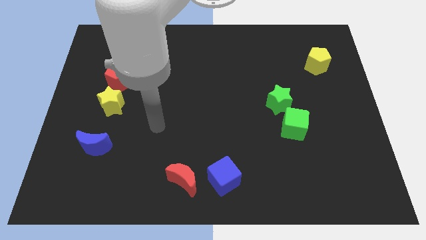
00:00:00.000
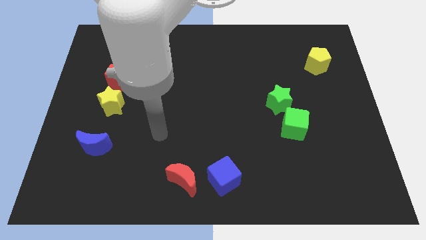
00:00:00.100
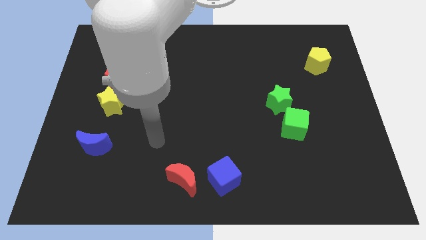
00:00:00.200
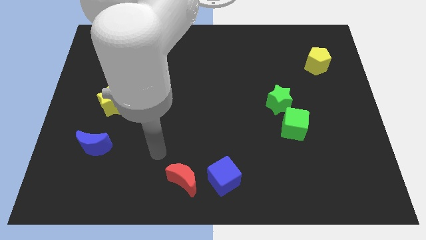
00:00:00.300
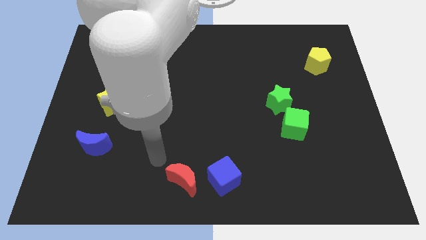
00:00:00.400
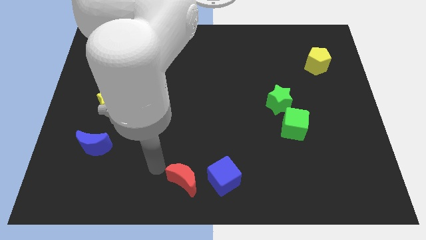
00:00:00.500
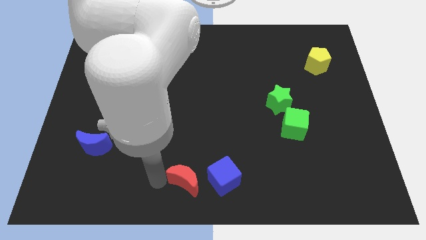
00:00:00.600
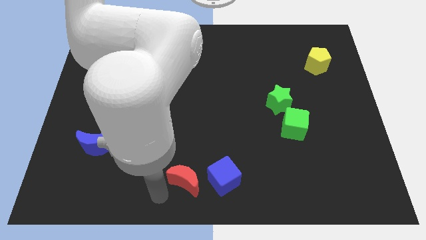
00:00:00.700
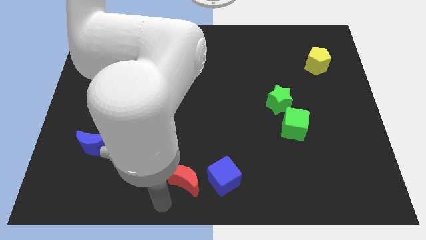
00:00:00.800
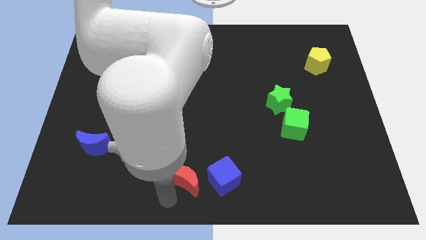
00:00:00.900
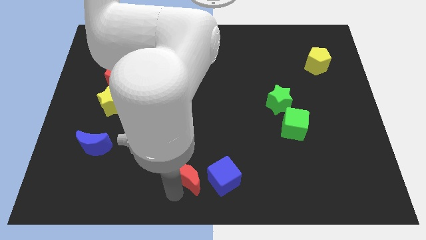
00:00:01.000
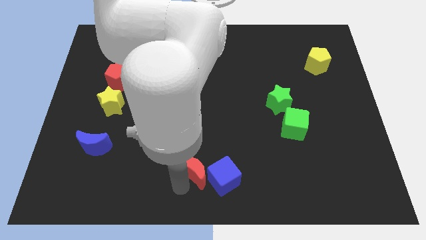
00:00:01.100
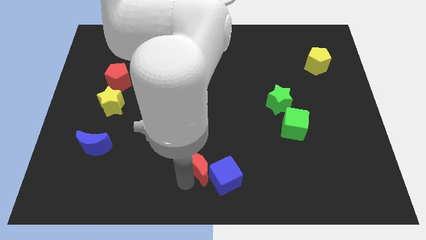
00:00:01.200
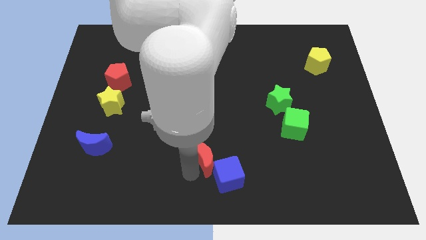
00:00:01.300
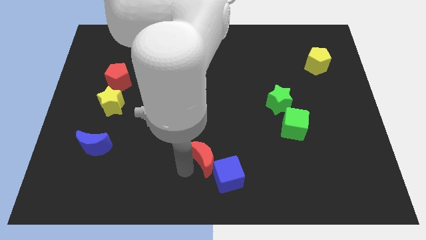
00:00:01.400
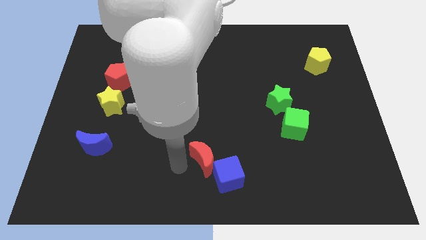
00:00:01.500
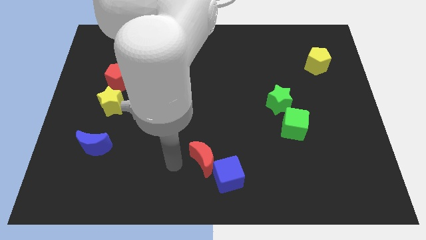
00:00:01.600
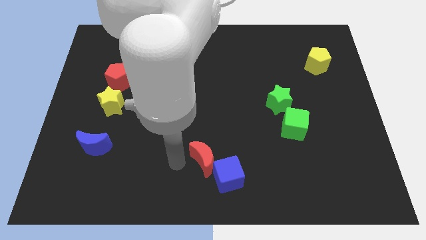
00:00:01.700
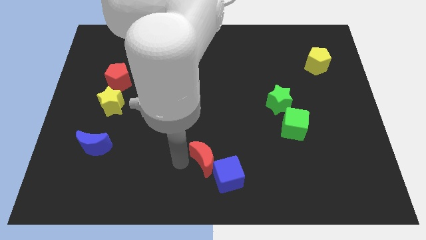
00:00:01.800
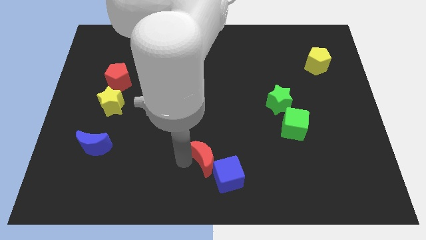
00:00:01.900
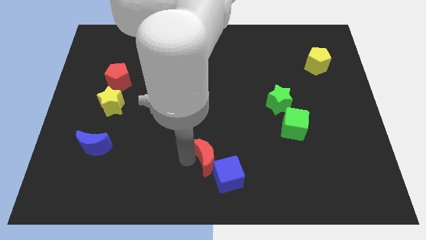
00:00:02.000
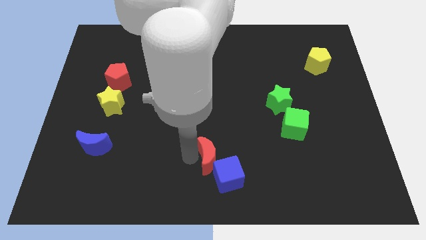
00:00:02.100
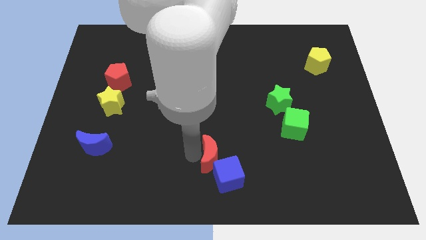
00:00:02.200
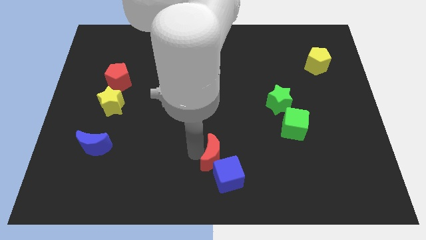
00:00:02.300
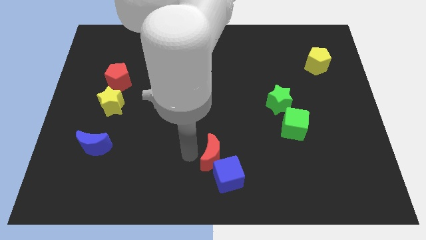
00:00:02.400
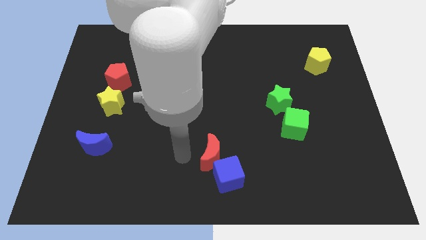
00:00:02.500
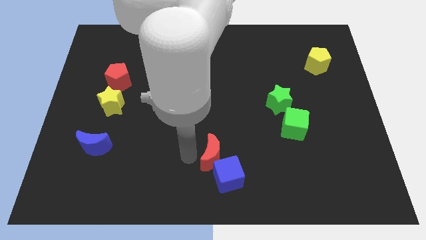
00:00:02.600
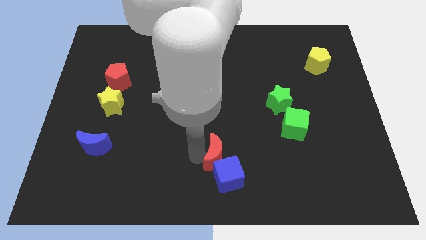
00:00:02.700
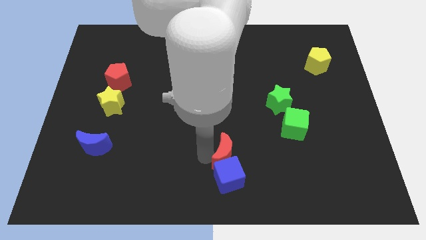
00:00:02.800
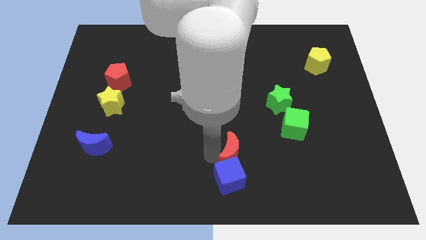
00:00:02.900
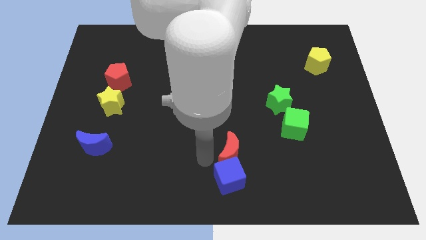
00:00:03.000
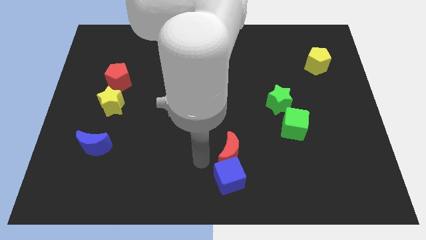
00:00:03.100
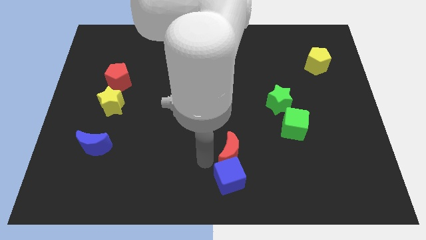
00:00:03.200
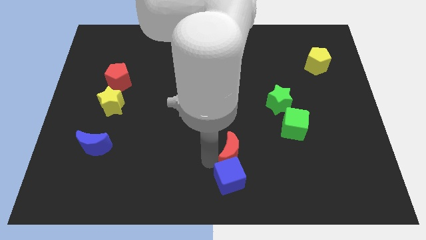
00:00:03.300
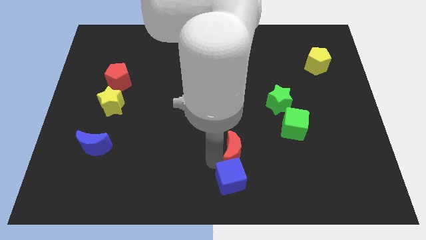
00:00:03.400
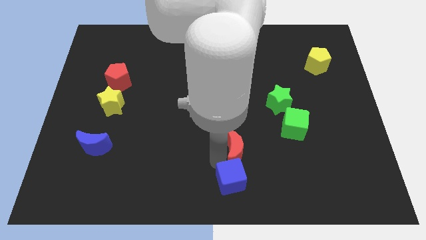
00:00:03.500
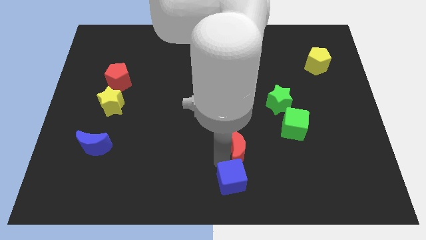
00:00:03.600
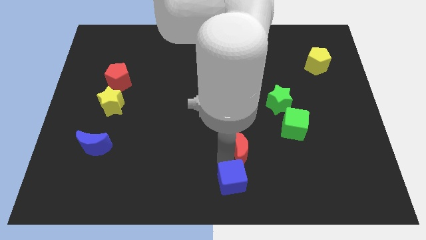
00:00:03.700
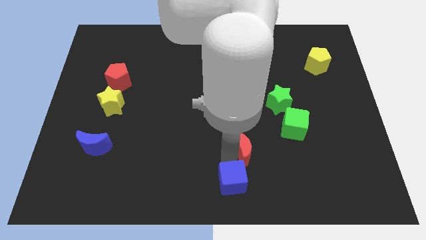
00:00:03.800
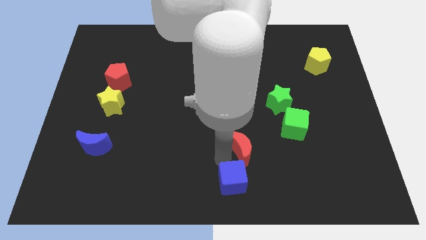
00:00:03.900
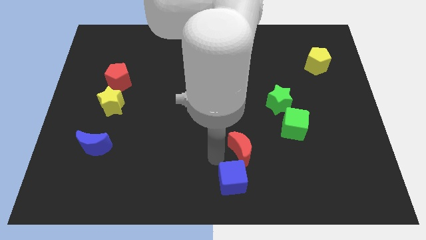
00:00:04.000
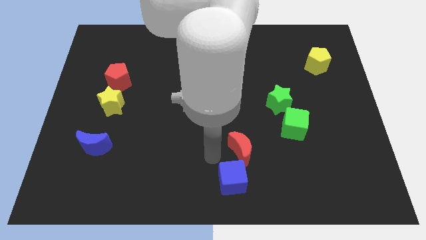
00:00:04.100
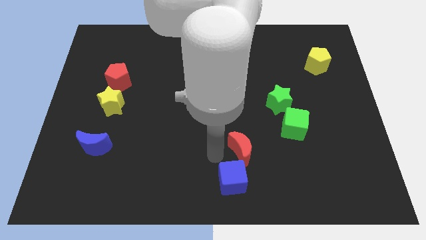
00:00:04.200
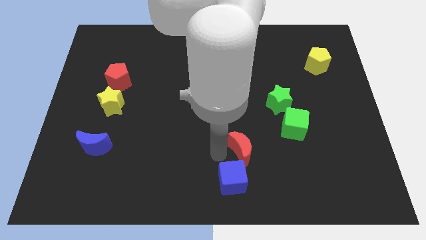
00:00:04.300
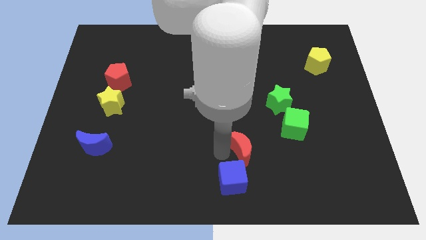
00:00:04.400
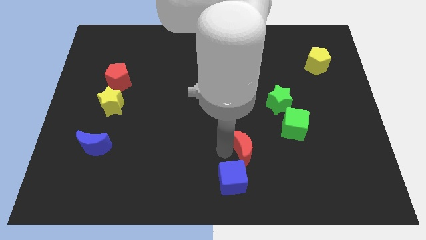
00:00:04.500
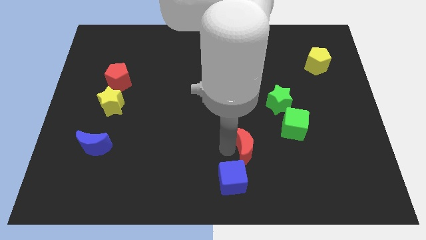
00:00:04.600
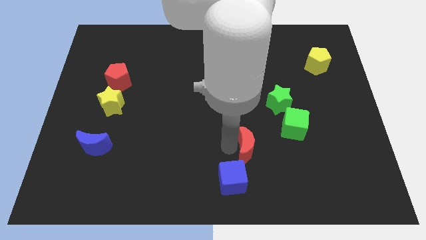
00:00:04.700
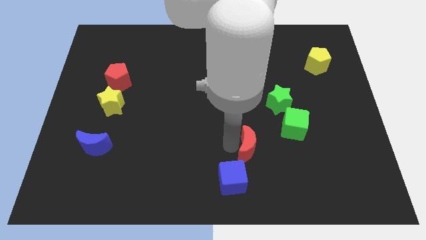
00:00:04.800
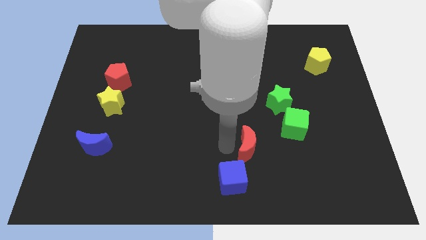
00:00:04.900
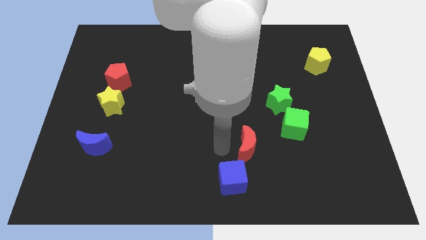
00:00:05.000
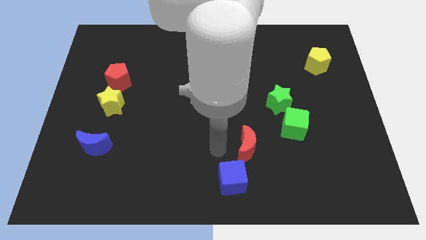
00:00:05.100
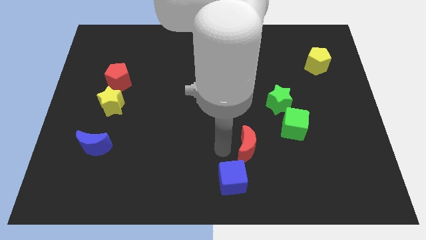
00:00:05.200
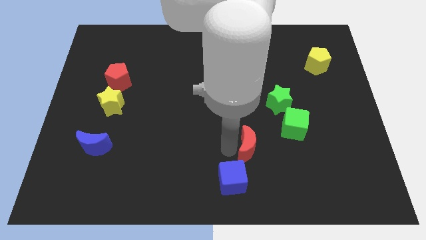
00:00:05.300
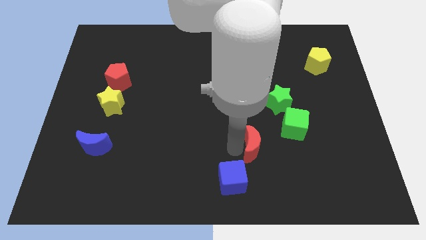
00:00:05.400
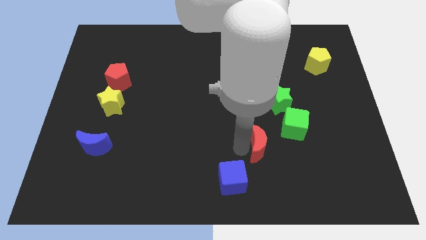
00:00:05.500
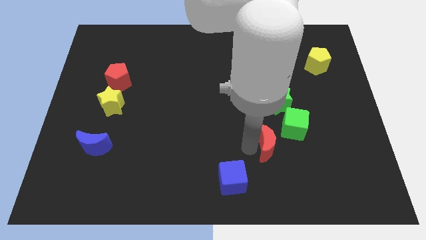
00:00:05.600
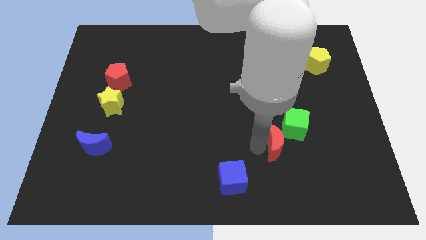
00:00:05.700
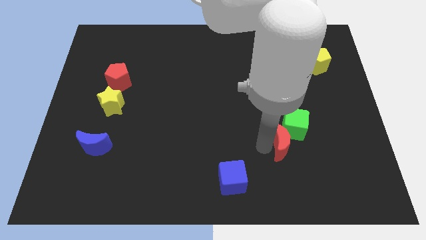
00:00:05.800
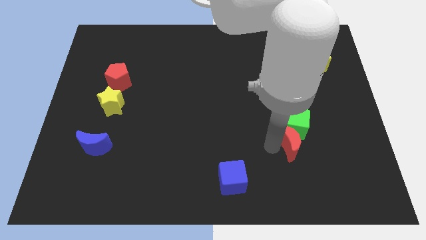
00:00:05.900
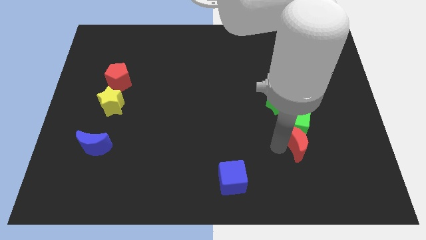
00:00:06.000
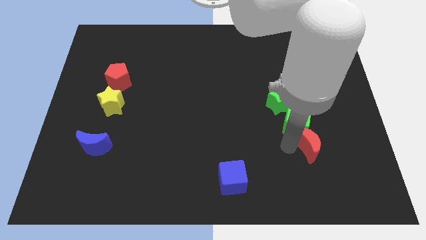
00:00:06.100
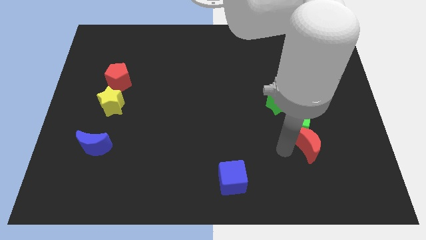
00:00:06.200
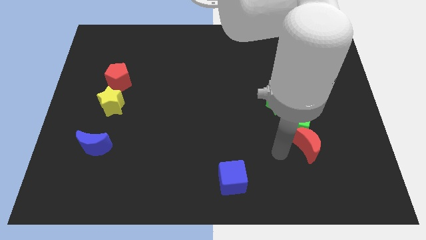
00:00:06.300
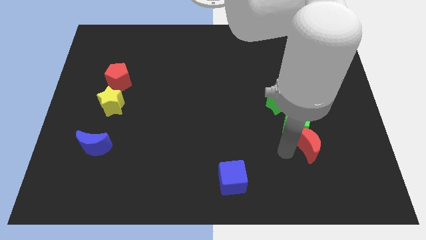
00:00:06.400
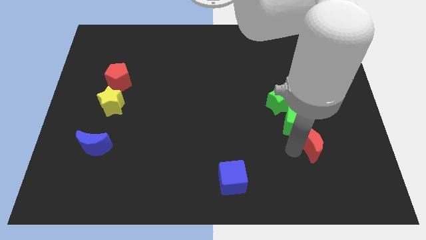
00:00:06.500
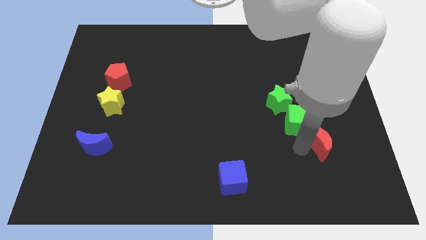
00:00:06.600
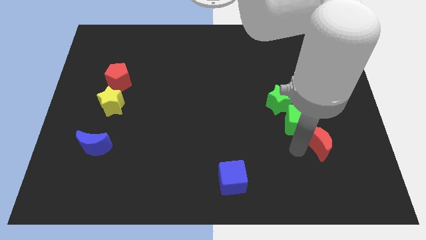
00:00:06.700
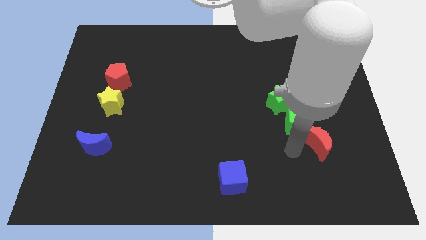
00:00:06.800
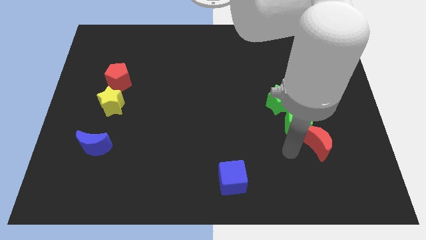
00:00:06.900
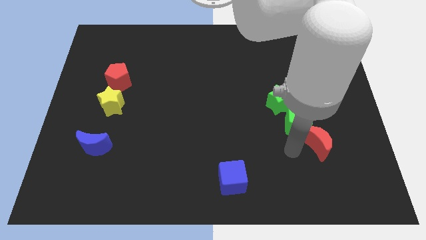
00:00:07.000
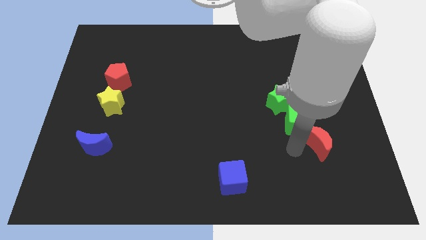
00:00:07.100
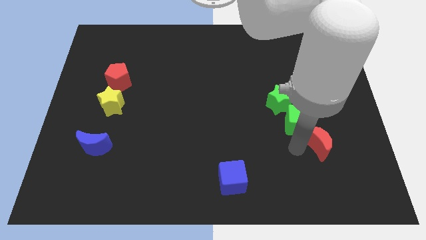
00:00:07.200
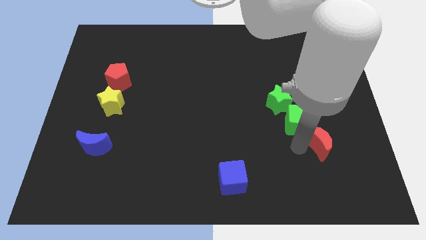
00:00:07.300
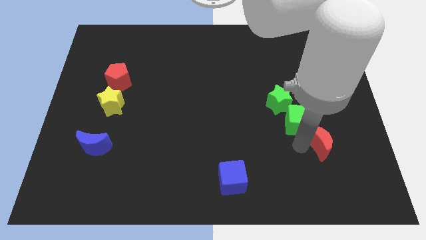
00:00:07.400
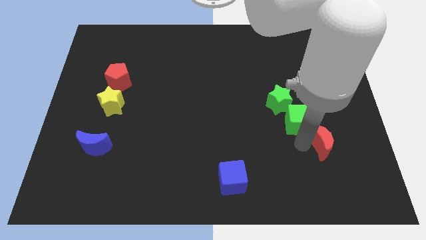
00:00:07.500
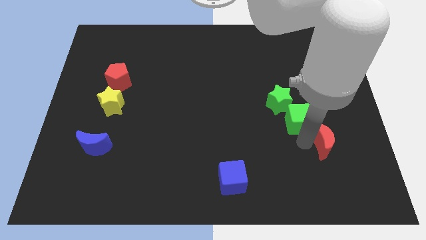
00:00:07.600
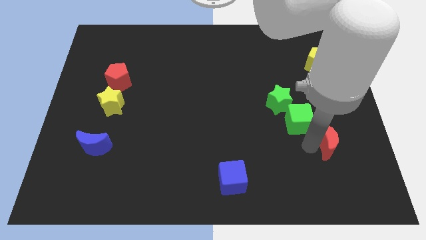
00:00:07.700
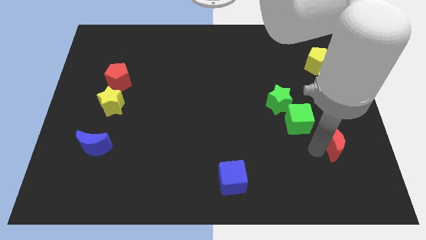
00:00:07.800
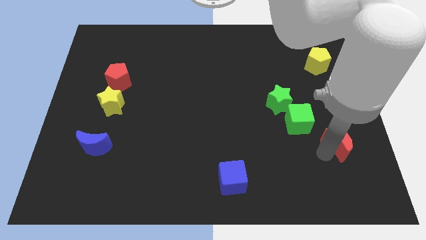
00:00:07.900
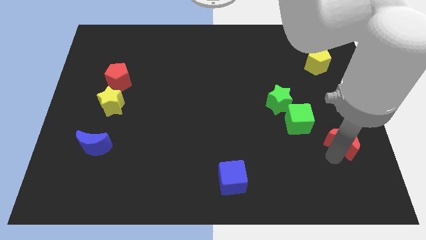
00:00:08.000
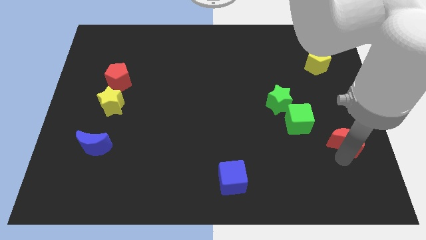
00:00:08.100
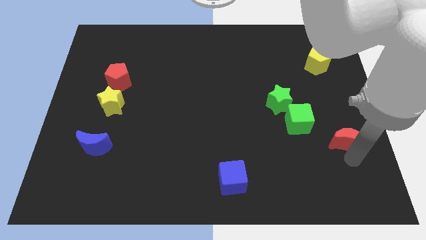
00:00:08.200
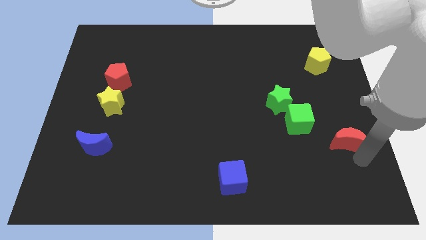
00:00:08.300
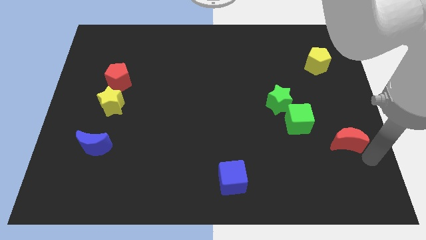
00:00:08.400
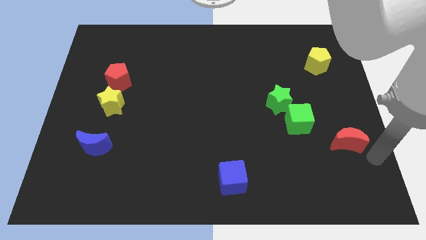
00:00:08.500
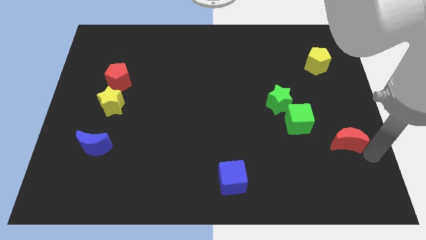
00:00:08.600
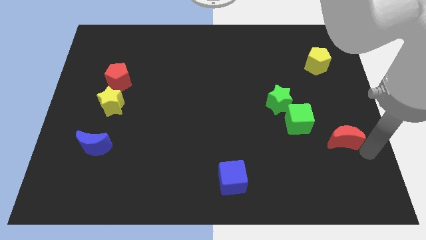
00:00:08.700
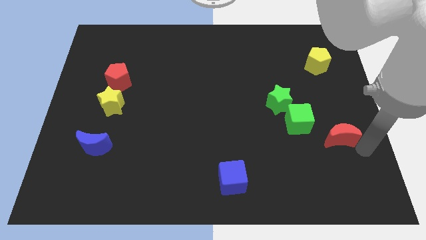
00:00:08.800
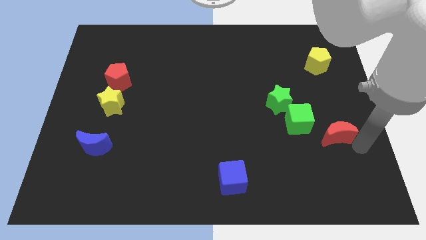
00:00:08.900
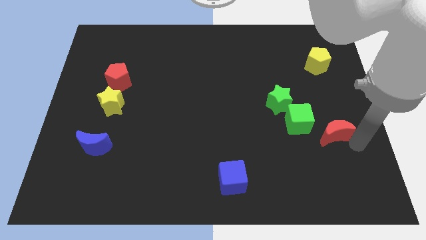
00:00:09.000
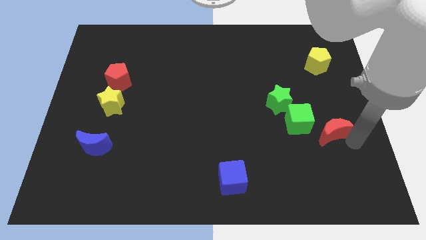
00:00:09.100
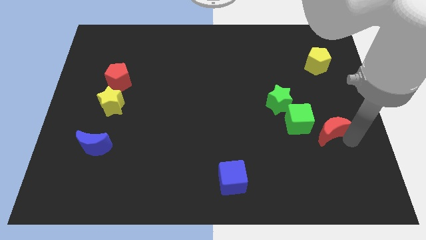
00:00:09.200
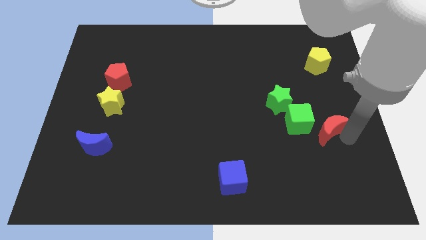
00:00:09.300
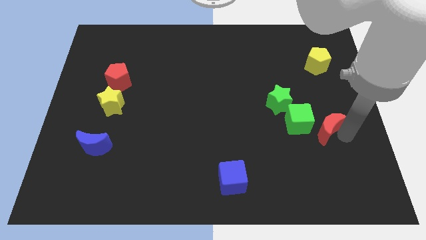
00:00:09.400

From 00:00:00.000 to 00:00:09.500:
push the red moon to the bottom right side of the green star
